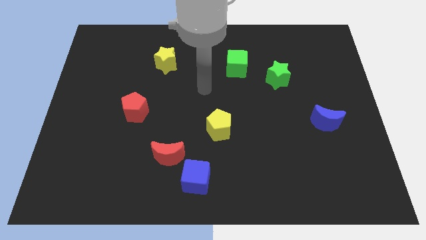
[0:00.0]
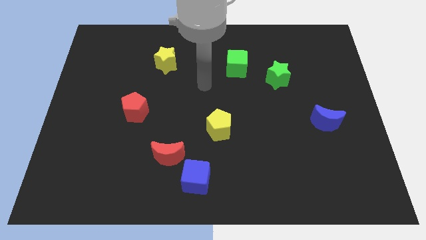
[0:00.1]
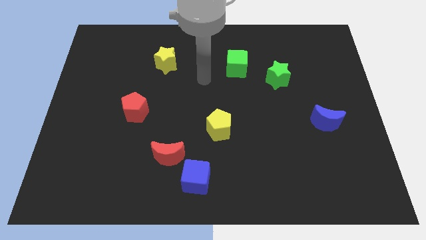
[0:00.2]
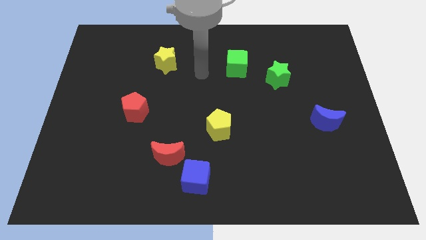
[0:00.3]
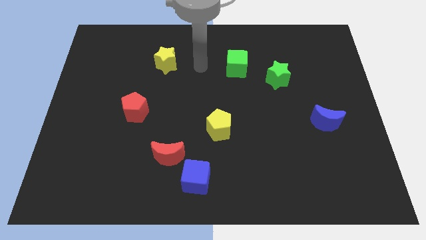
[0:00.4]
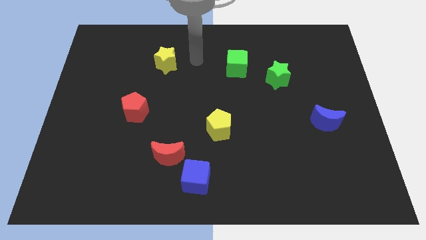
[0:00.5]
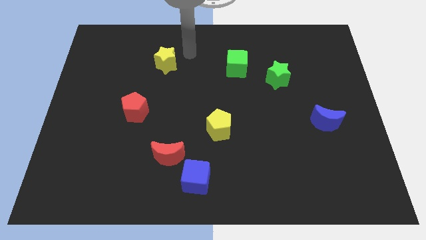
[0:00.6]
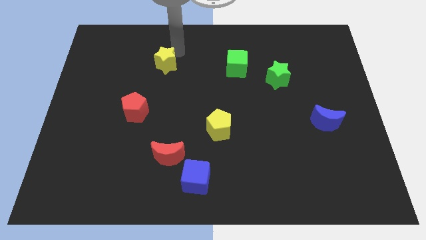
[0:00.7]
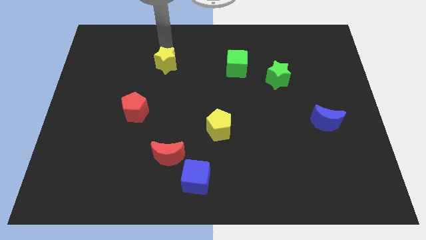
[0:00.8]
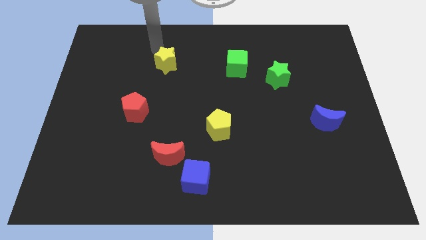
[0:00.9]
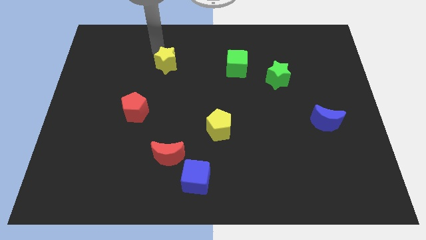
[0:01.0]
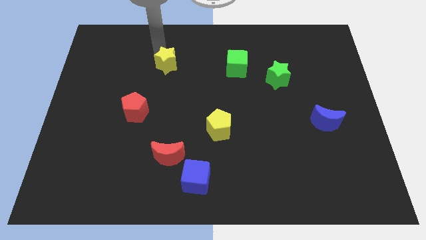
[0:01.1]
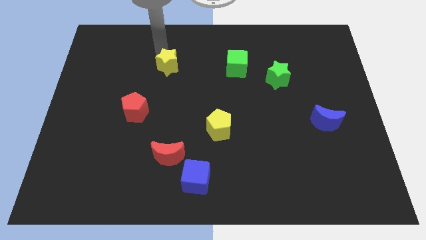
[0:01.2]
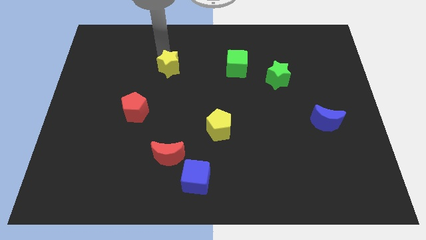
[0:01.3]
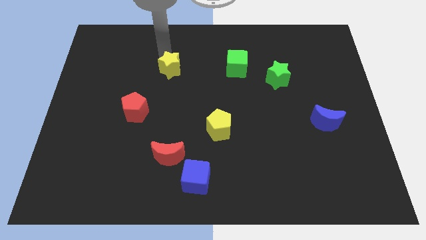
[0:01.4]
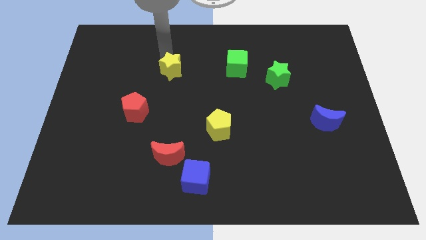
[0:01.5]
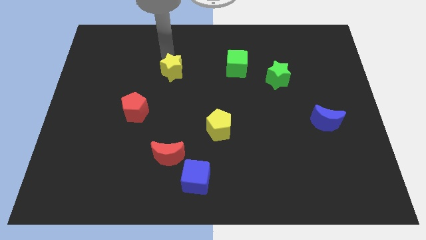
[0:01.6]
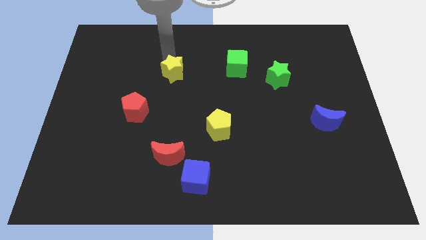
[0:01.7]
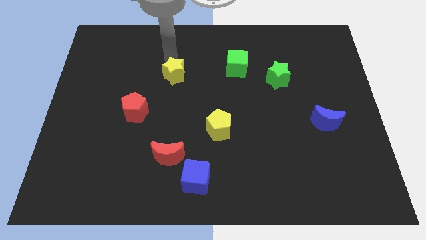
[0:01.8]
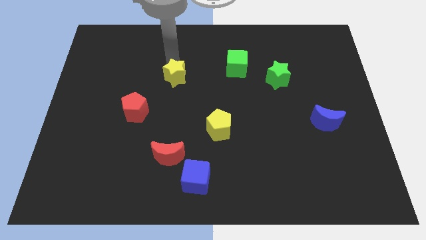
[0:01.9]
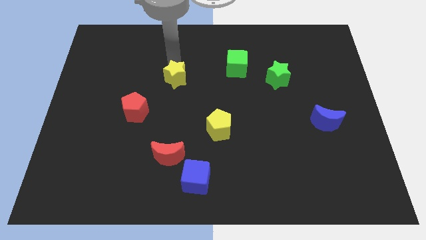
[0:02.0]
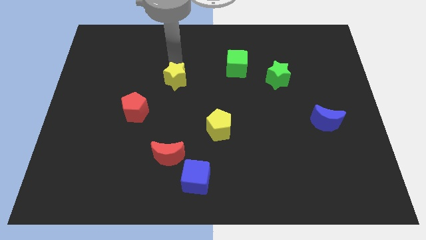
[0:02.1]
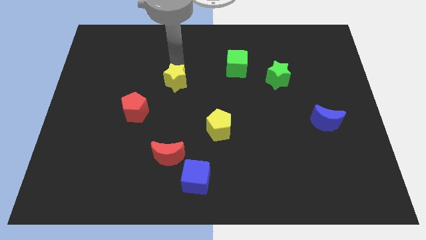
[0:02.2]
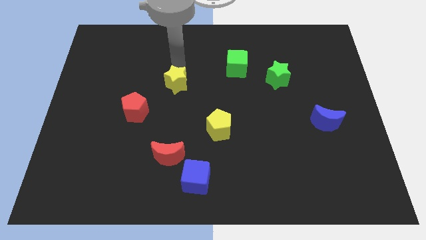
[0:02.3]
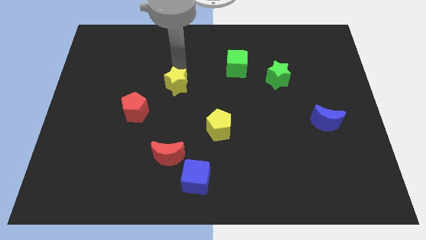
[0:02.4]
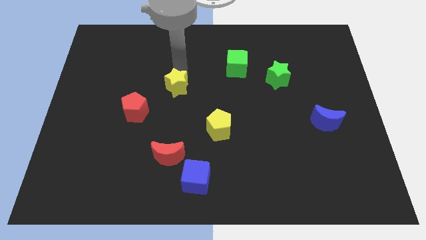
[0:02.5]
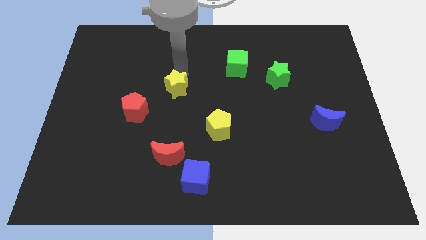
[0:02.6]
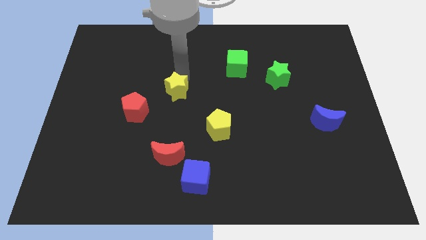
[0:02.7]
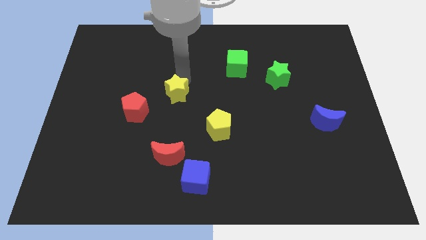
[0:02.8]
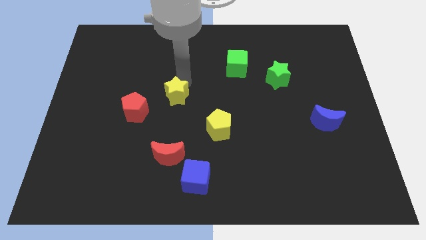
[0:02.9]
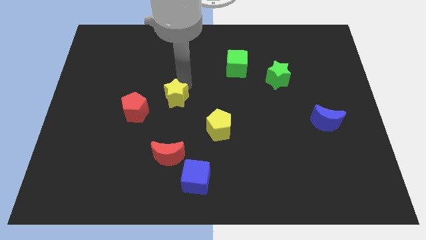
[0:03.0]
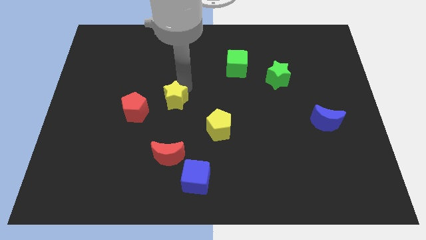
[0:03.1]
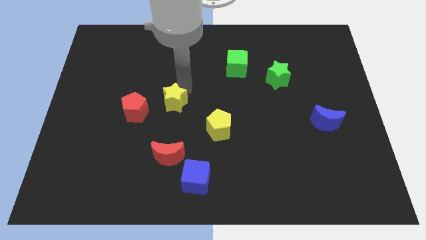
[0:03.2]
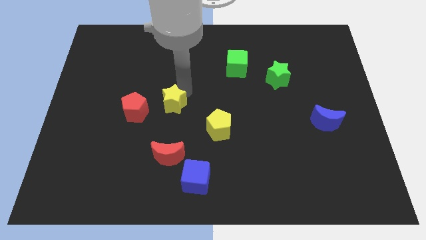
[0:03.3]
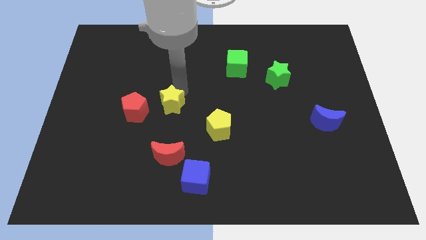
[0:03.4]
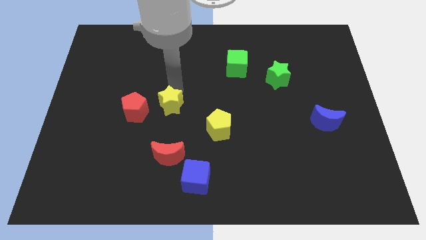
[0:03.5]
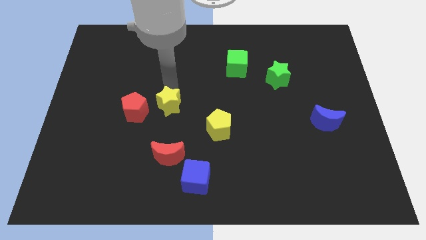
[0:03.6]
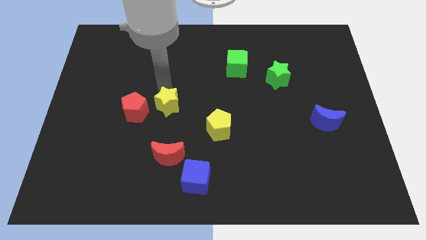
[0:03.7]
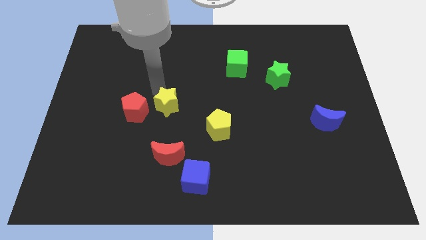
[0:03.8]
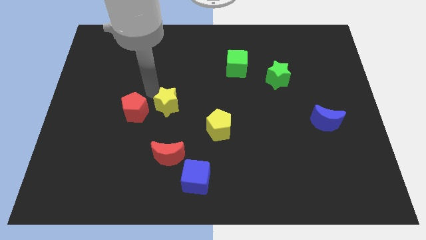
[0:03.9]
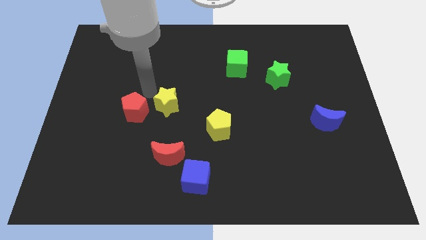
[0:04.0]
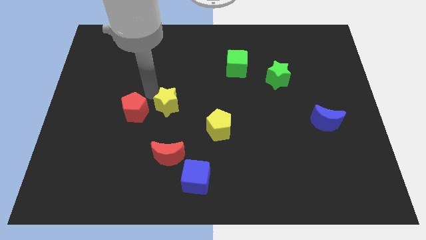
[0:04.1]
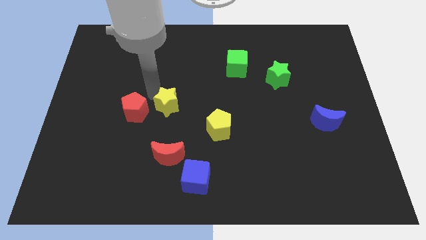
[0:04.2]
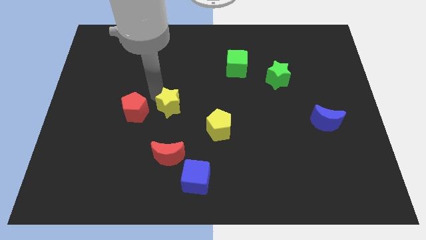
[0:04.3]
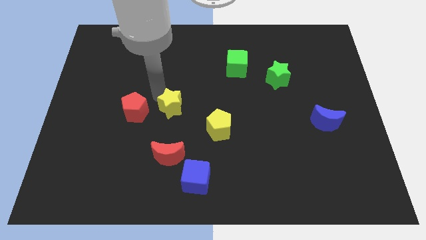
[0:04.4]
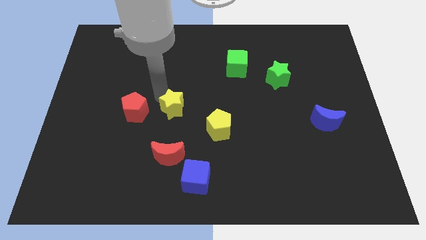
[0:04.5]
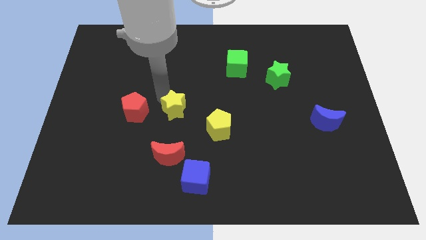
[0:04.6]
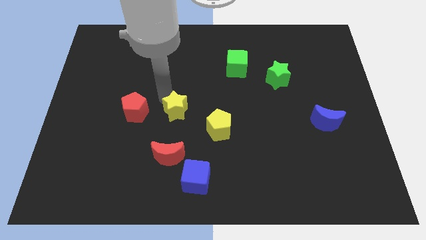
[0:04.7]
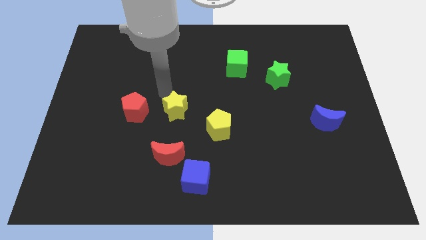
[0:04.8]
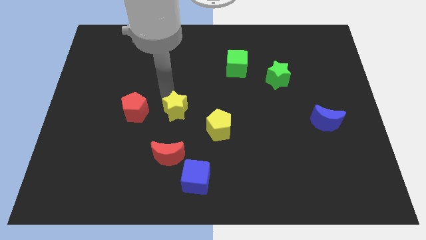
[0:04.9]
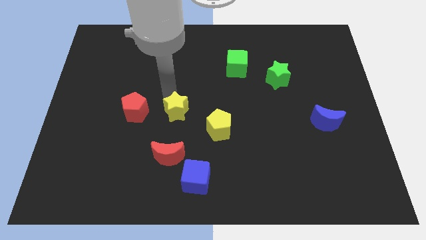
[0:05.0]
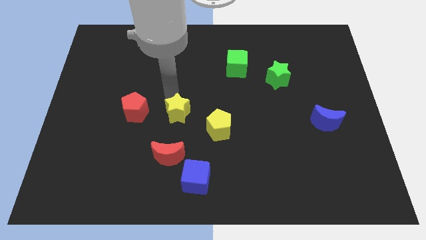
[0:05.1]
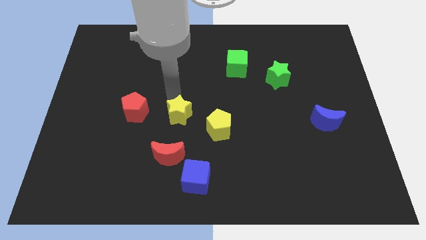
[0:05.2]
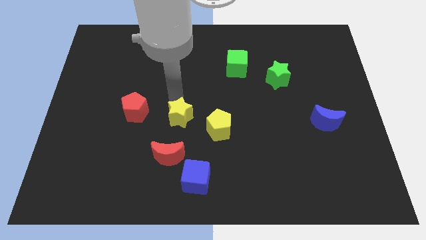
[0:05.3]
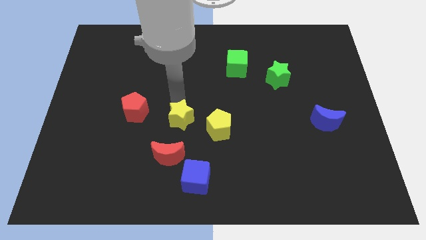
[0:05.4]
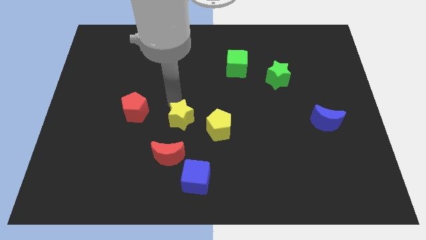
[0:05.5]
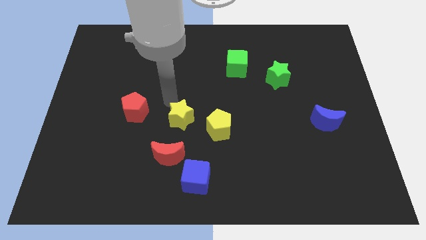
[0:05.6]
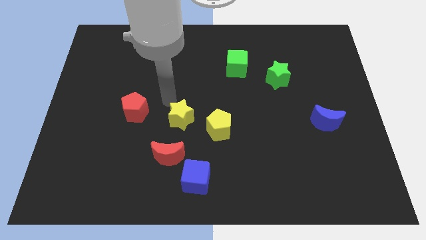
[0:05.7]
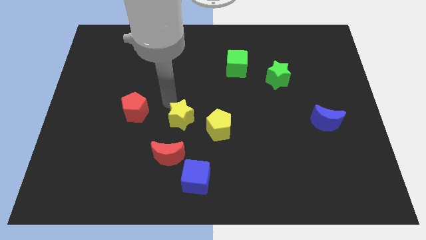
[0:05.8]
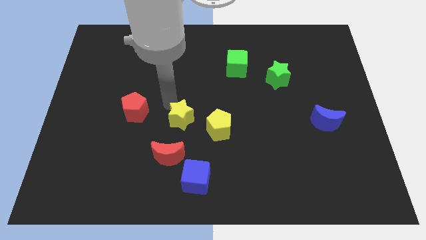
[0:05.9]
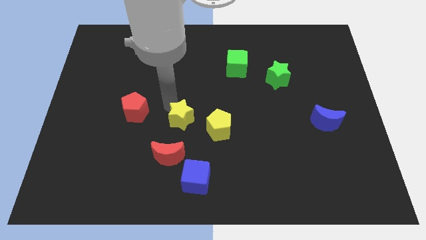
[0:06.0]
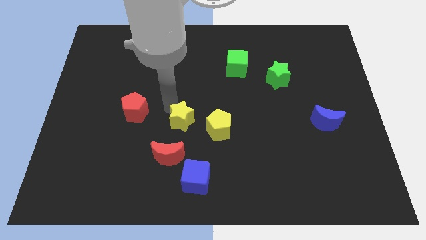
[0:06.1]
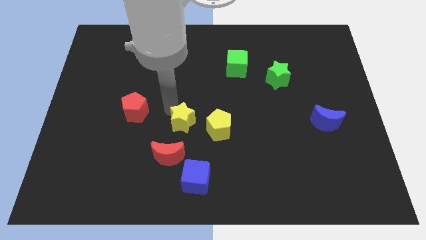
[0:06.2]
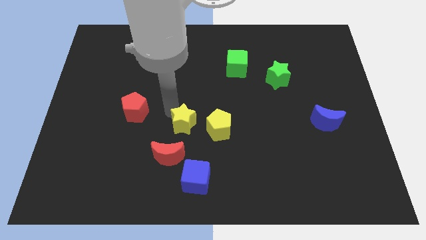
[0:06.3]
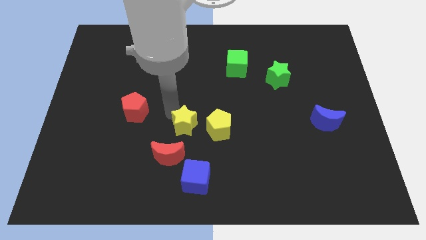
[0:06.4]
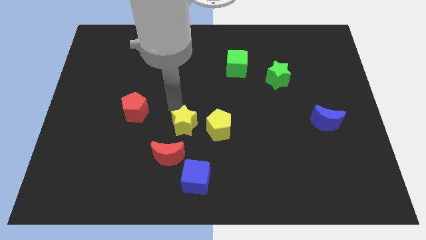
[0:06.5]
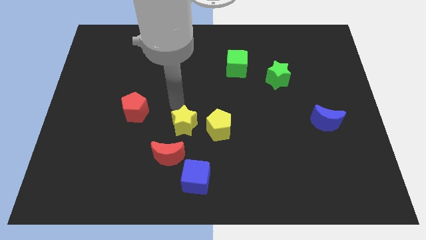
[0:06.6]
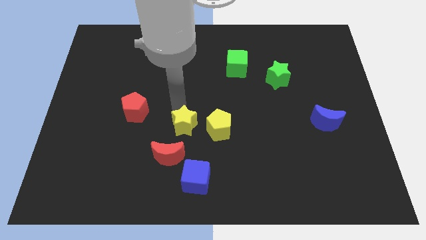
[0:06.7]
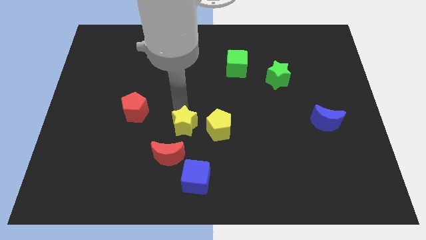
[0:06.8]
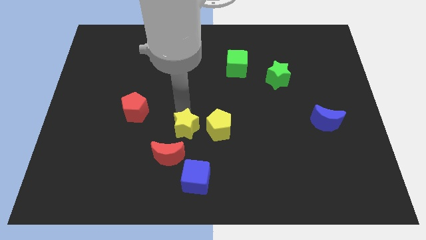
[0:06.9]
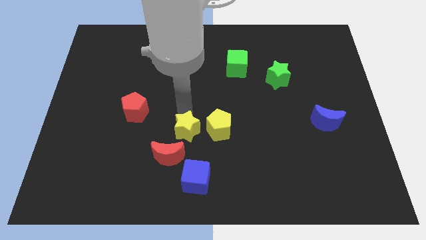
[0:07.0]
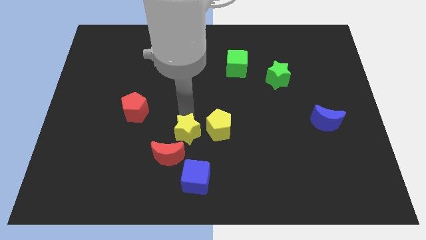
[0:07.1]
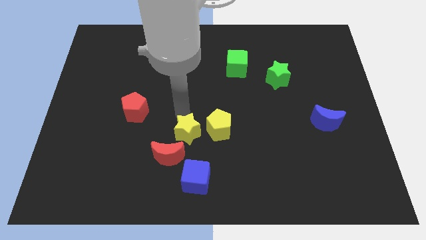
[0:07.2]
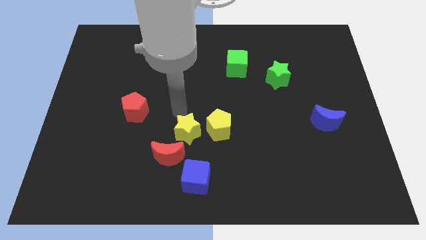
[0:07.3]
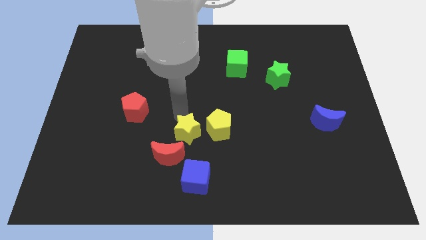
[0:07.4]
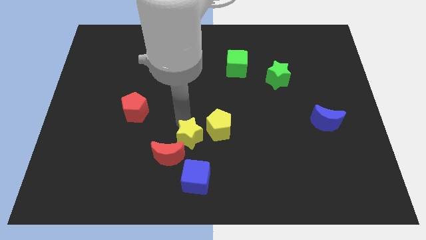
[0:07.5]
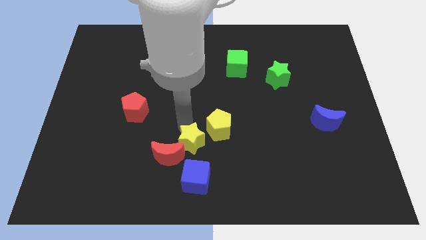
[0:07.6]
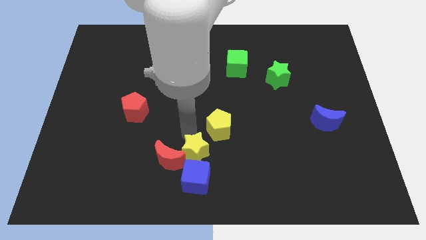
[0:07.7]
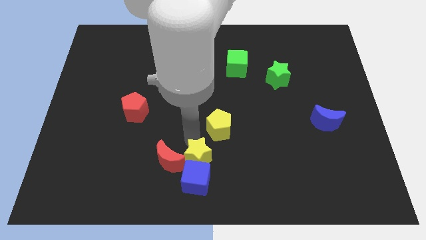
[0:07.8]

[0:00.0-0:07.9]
push the yellow star towards the blue cube
